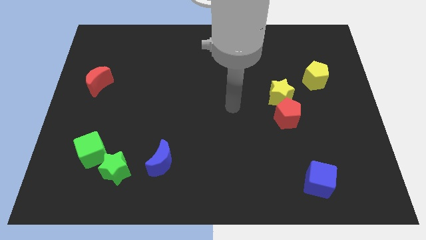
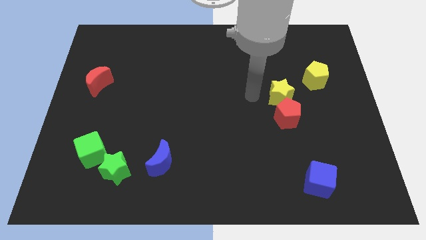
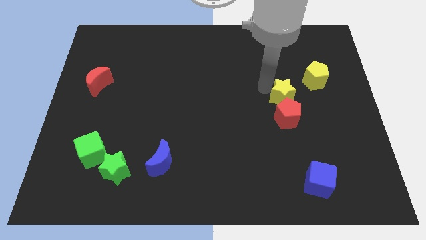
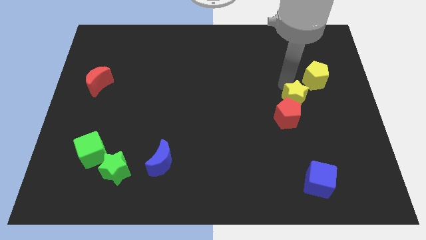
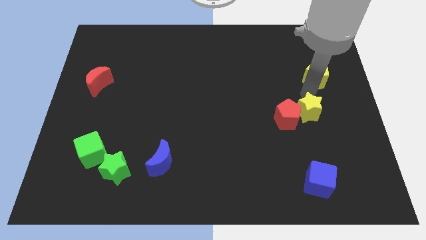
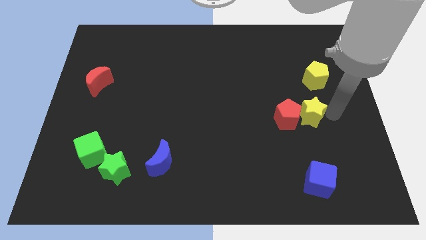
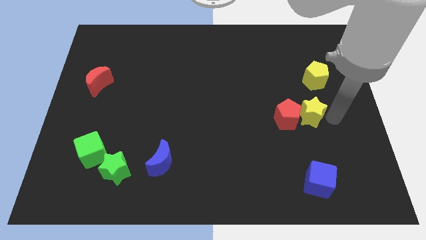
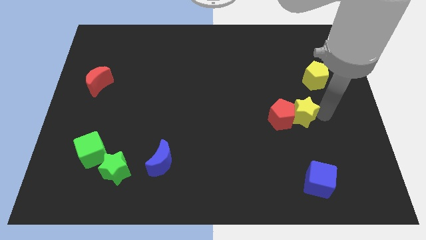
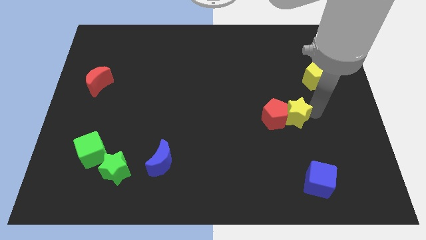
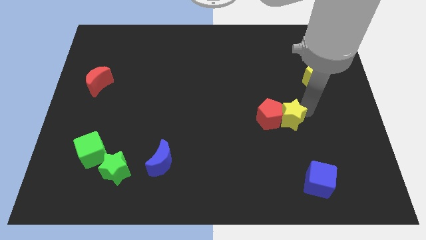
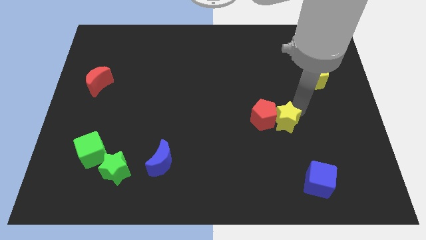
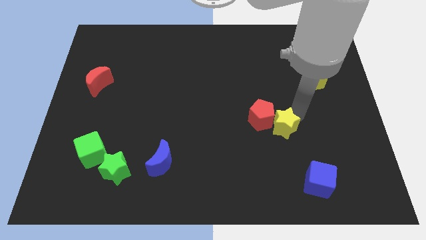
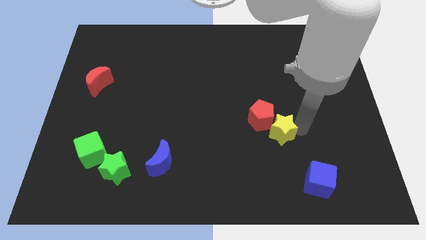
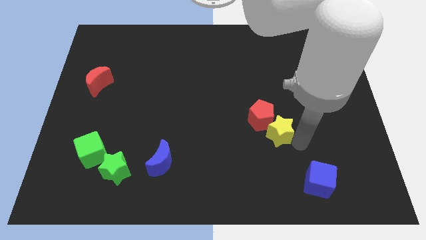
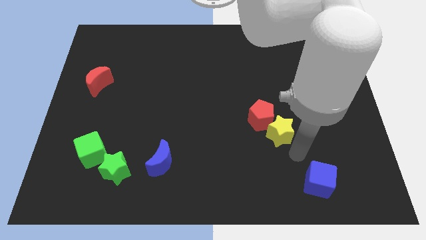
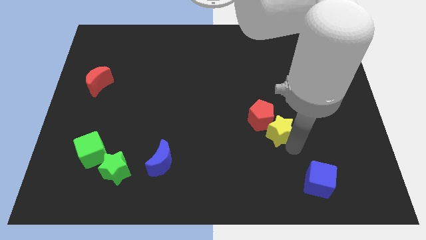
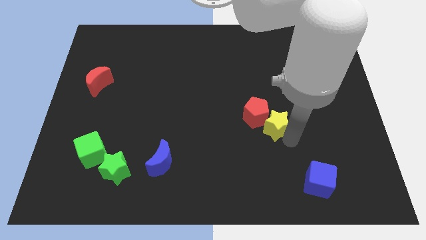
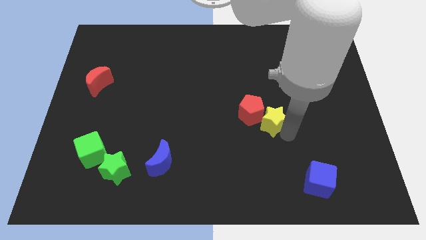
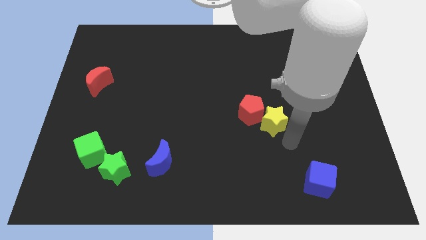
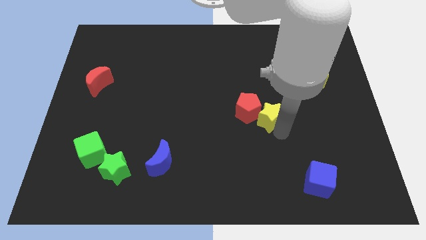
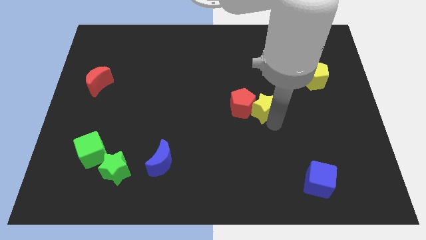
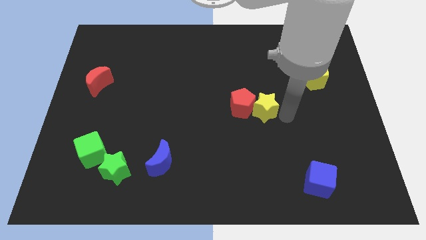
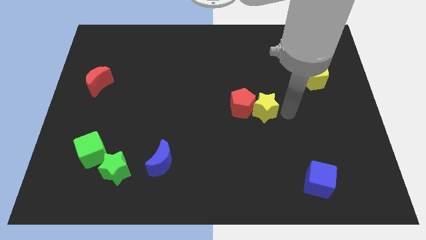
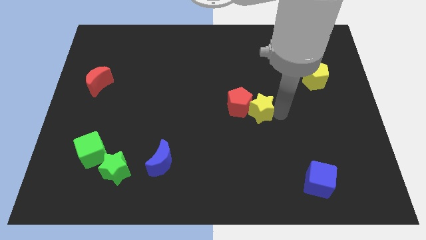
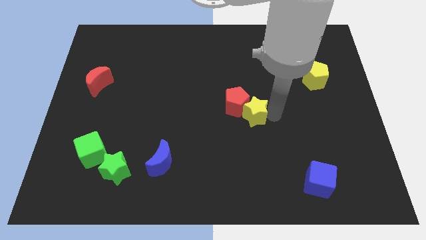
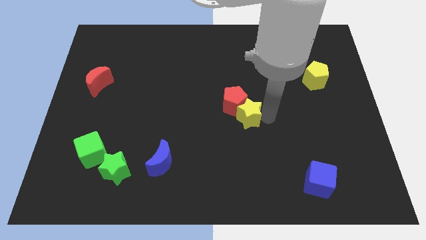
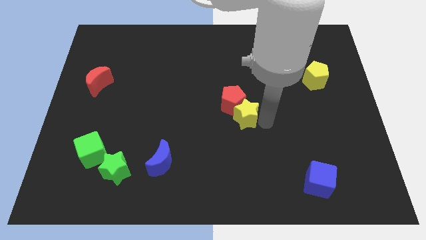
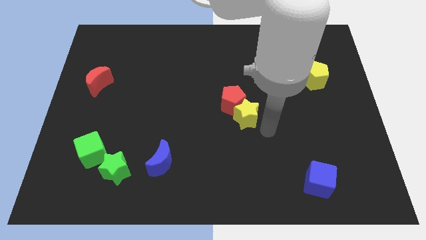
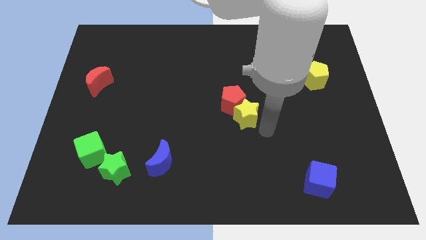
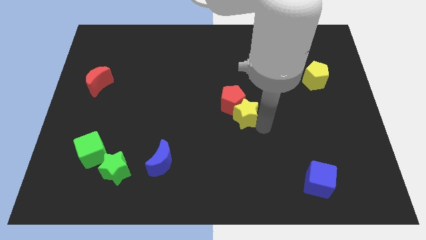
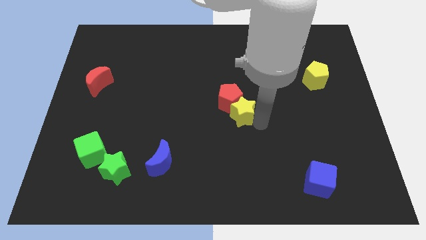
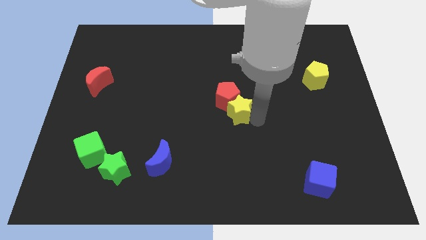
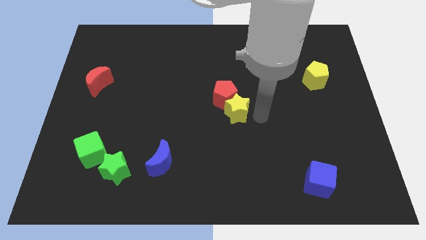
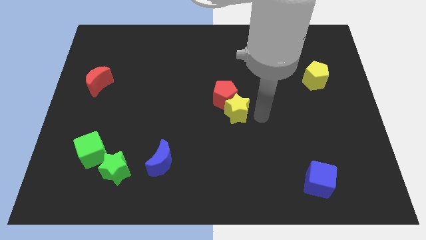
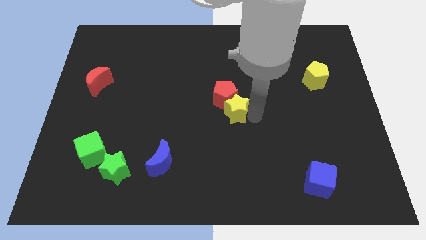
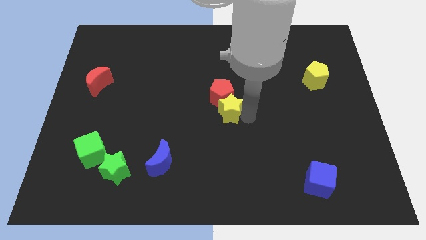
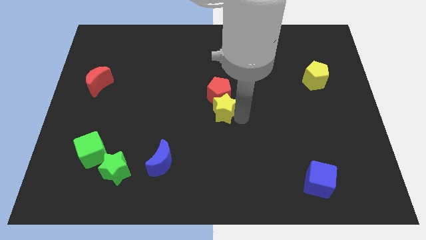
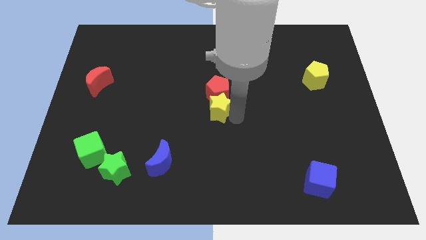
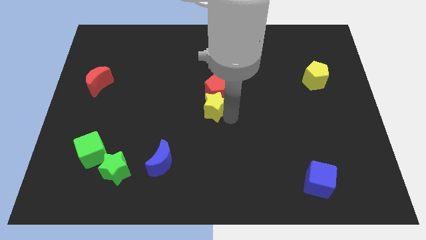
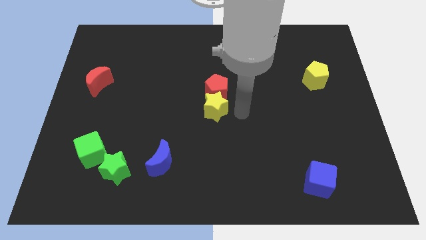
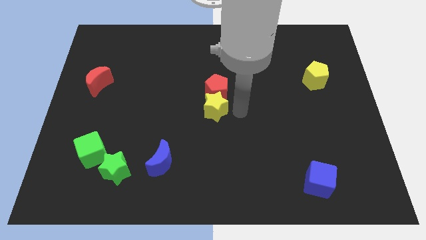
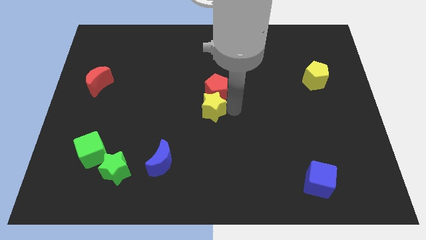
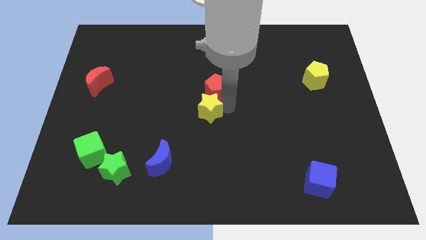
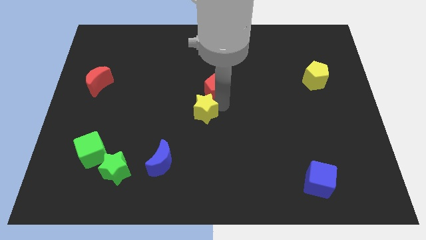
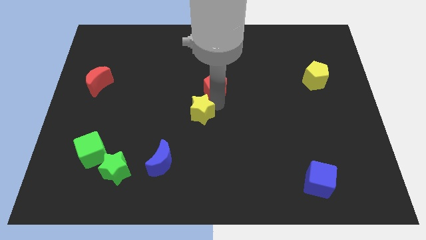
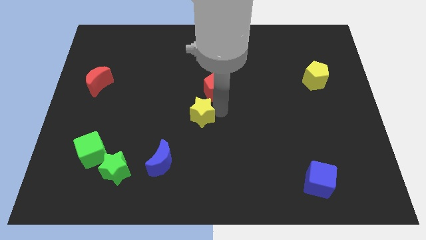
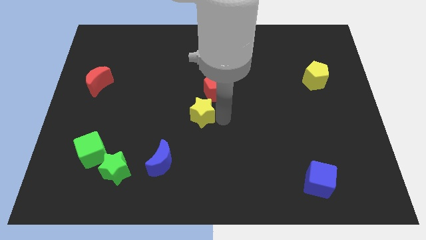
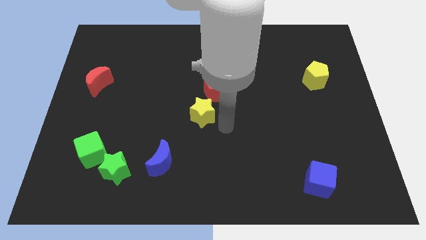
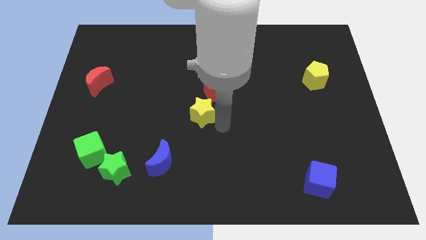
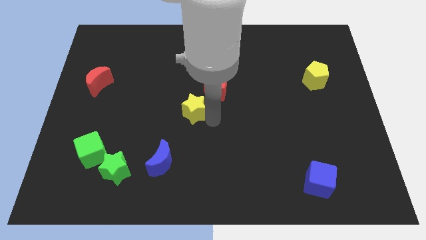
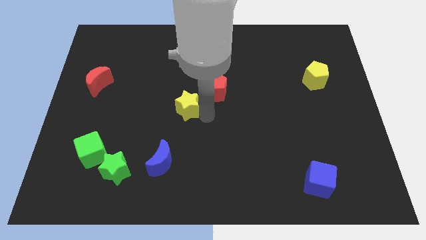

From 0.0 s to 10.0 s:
push the yellow star to the left

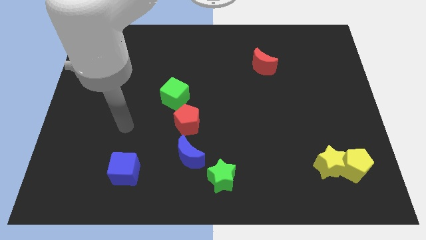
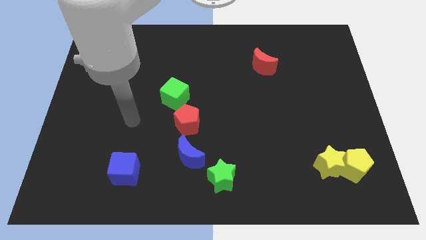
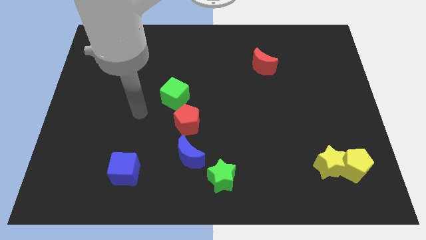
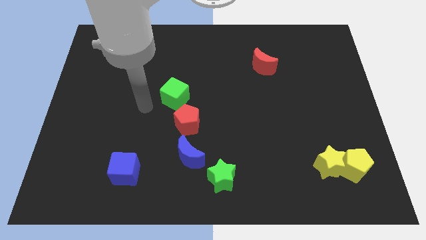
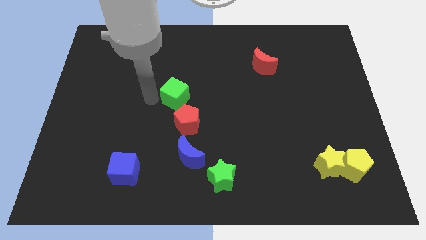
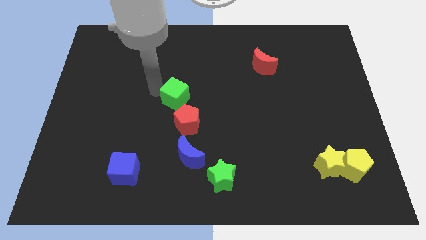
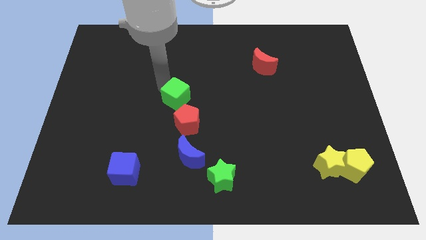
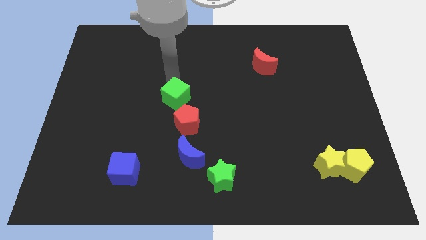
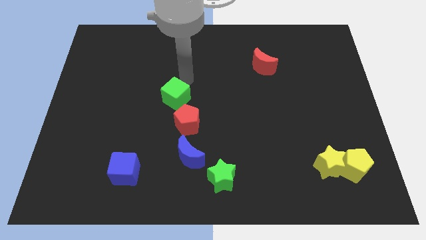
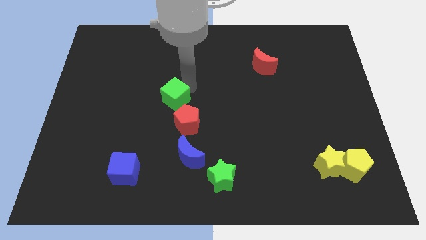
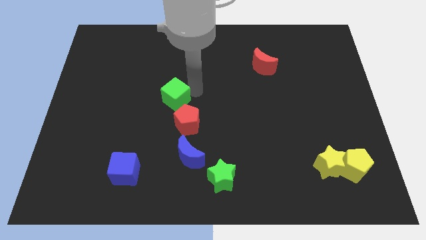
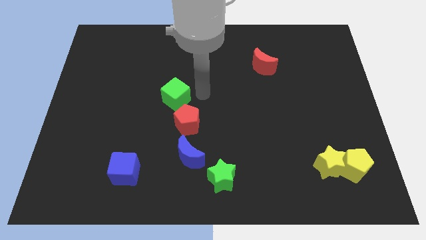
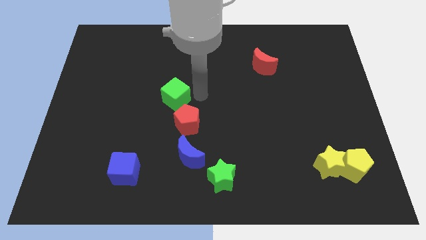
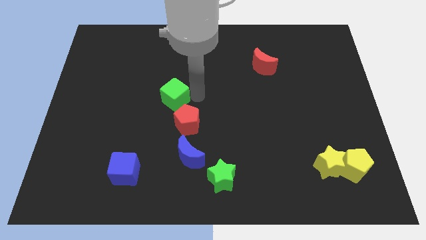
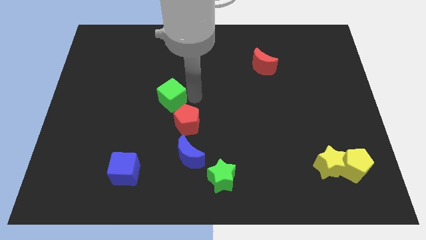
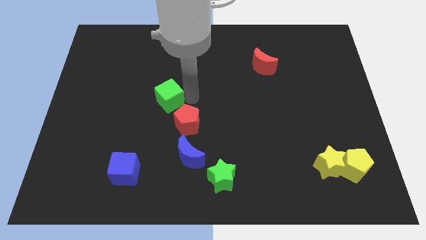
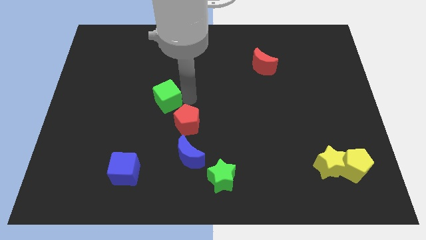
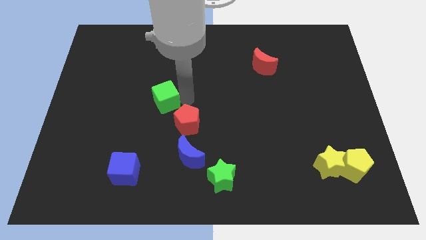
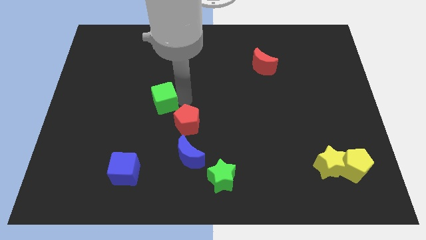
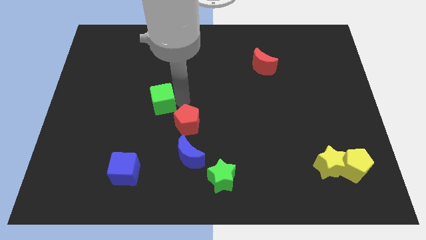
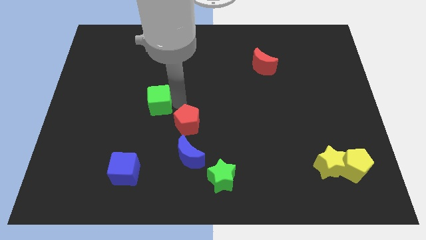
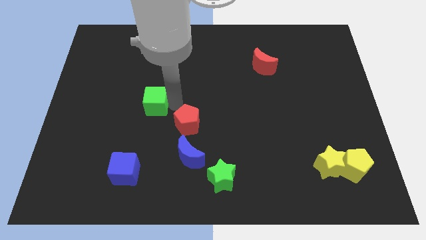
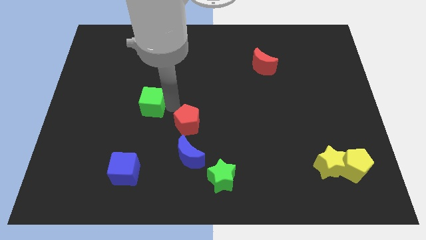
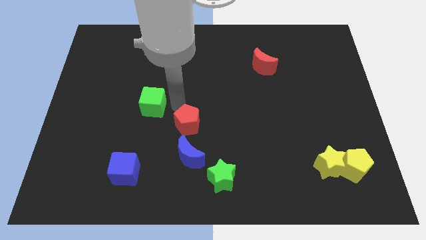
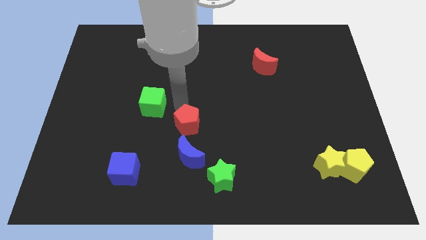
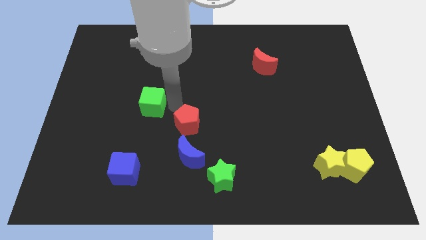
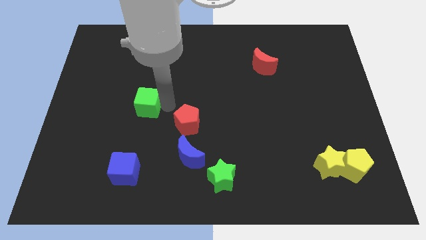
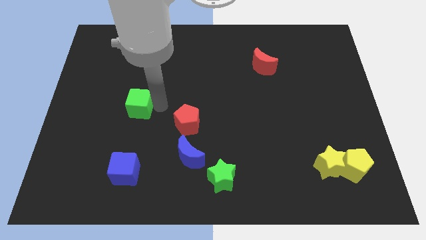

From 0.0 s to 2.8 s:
move the green cube somewhat to the left

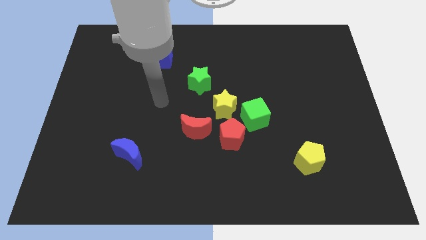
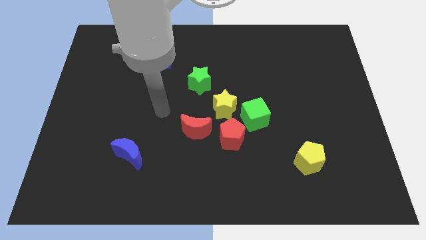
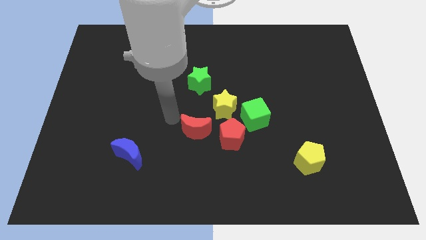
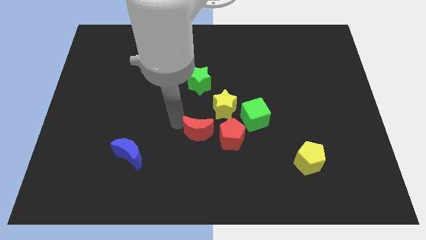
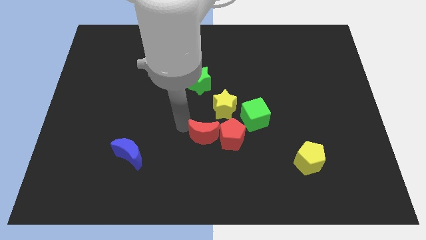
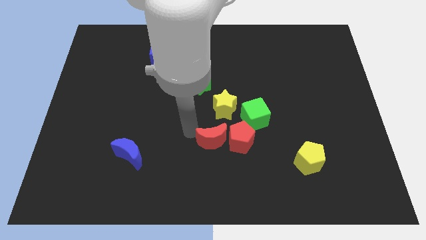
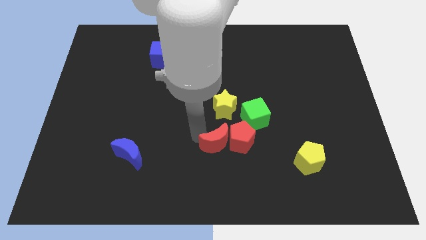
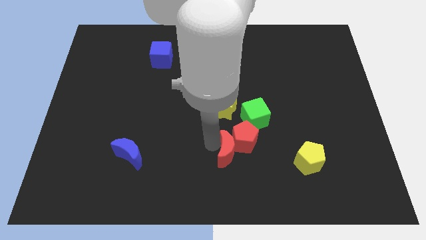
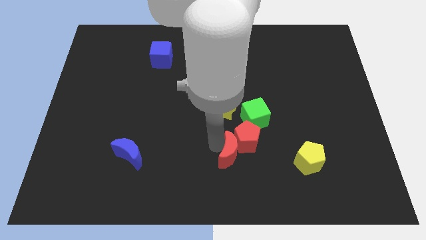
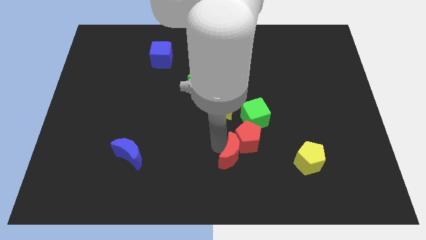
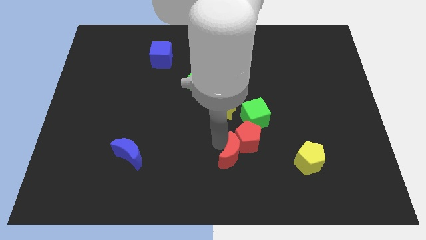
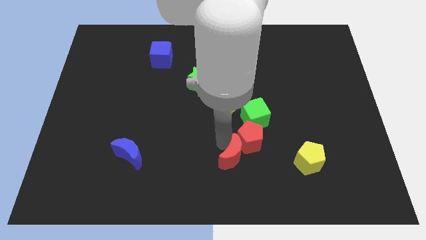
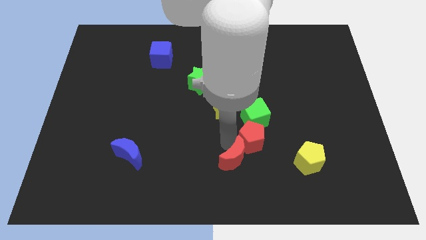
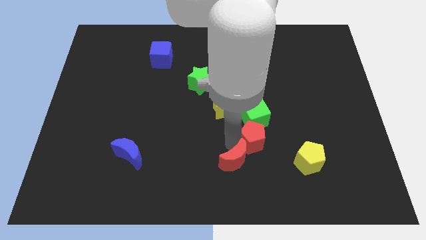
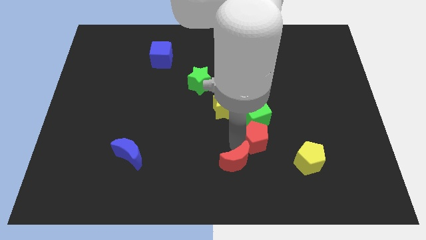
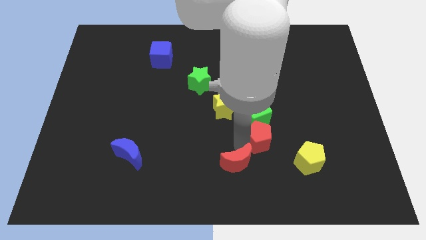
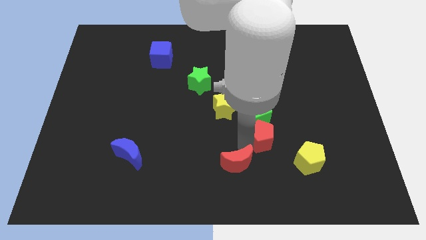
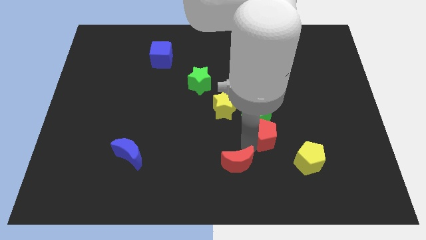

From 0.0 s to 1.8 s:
slightly move the red pentagon right
